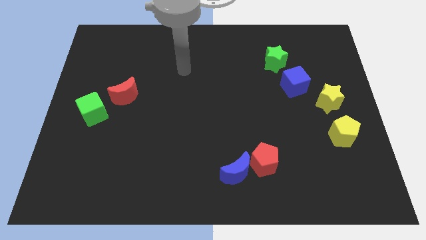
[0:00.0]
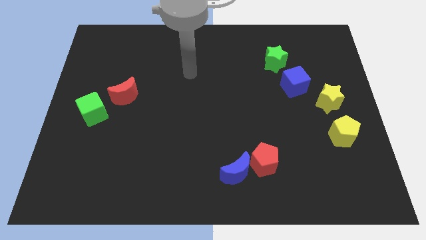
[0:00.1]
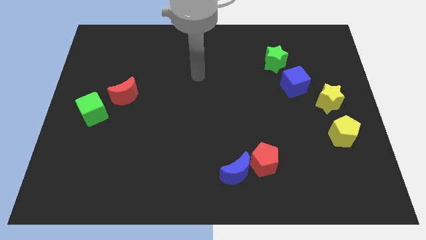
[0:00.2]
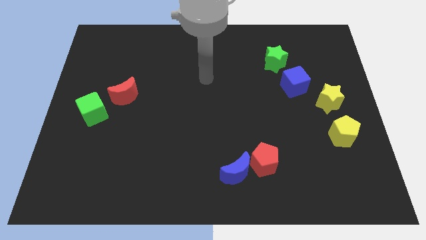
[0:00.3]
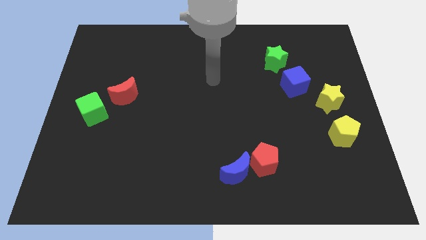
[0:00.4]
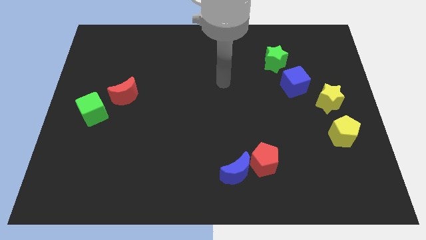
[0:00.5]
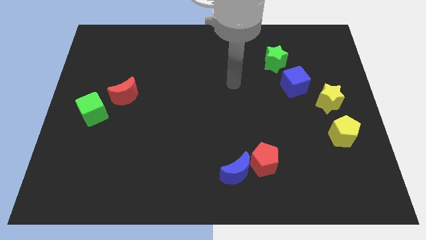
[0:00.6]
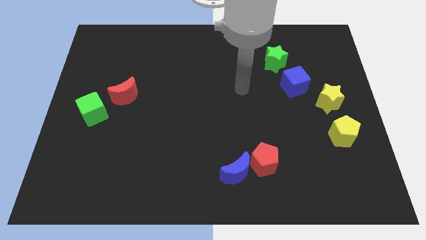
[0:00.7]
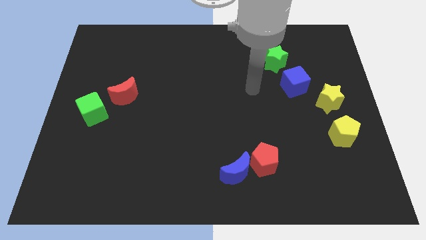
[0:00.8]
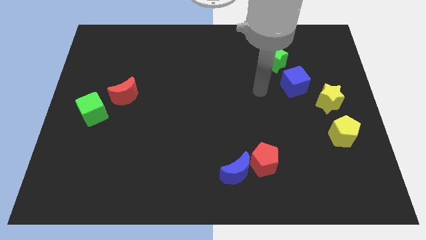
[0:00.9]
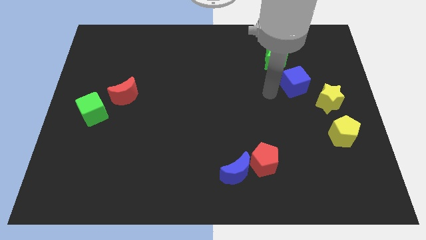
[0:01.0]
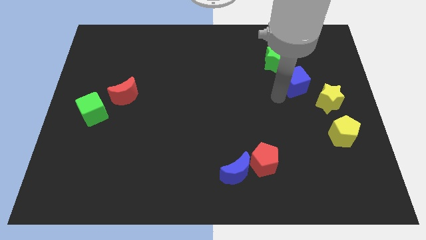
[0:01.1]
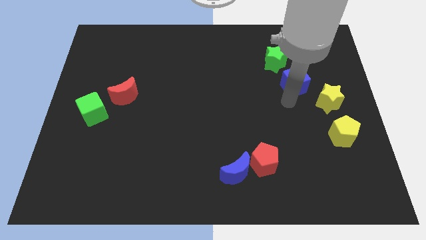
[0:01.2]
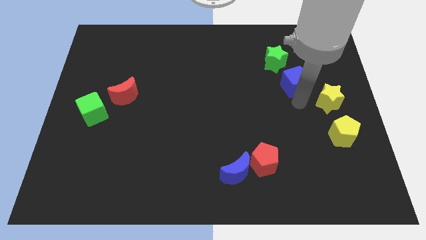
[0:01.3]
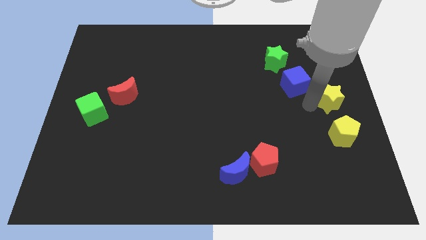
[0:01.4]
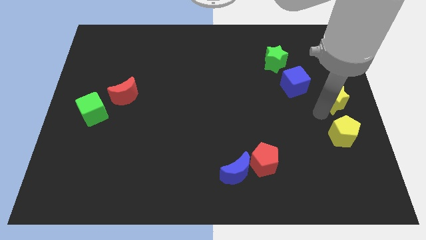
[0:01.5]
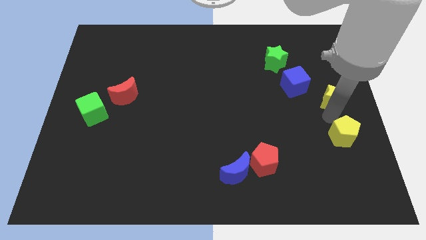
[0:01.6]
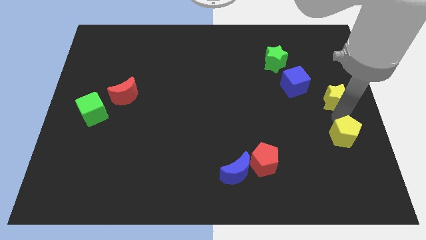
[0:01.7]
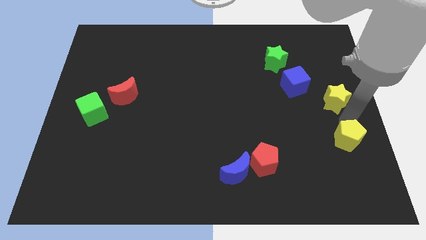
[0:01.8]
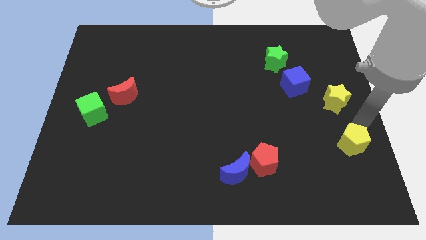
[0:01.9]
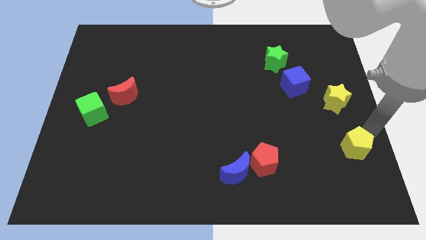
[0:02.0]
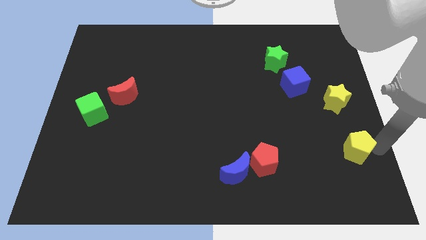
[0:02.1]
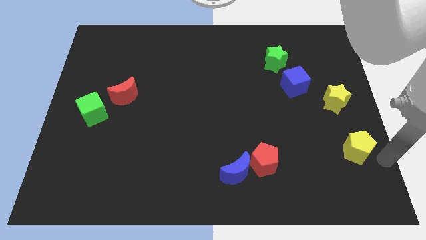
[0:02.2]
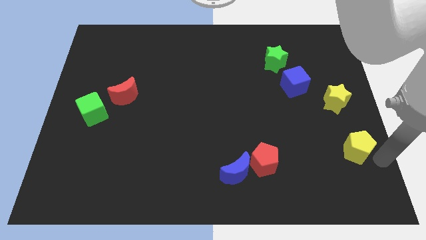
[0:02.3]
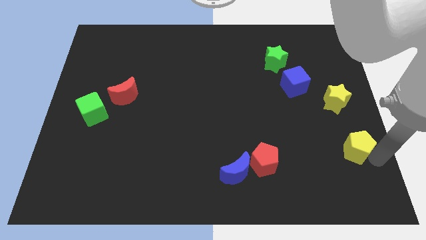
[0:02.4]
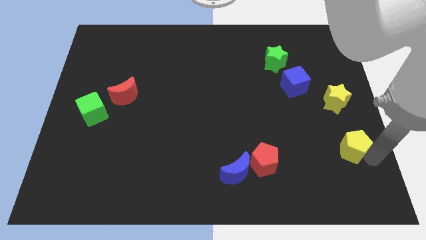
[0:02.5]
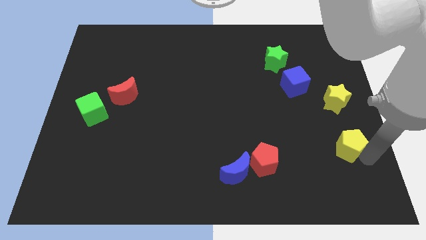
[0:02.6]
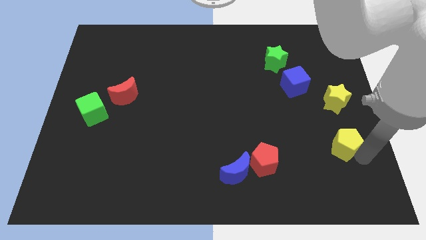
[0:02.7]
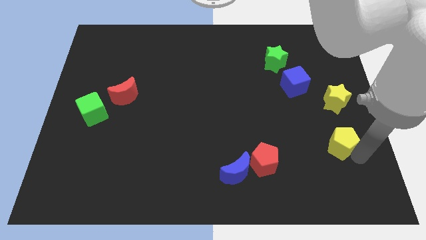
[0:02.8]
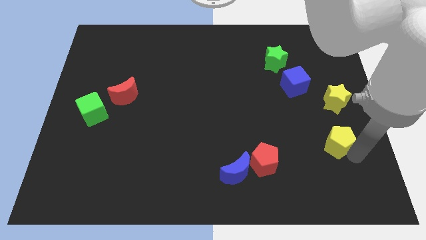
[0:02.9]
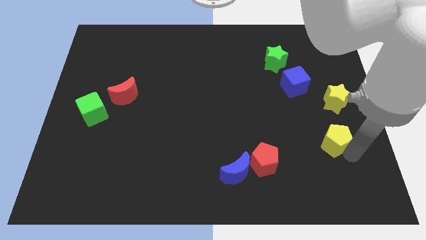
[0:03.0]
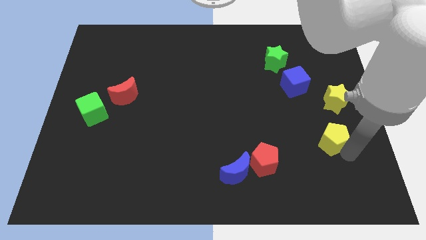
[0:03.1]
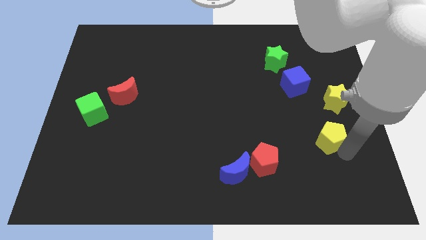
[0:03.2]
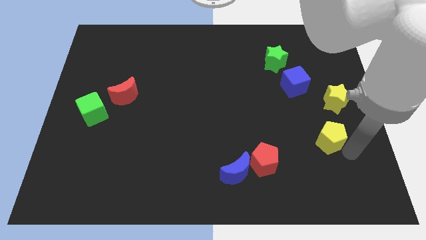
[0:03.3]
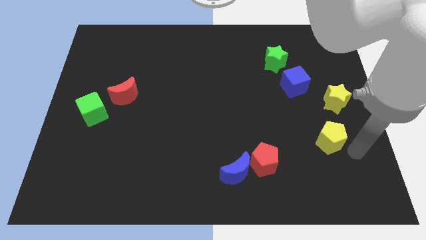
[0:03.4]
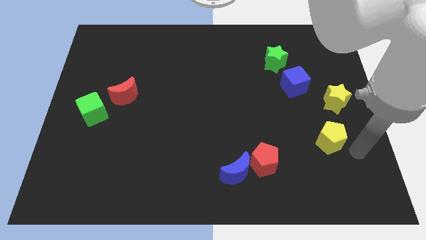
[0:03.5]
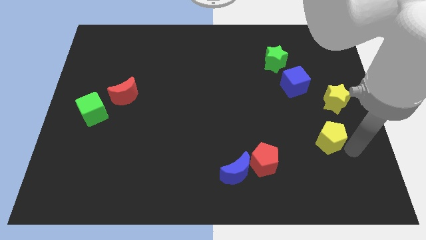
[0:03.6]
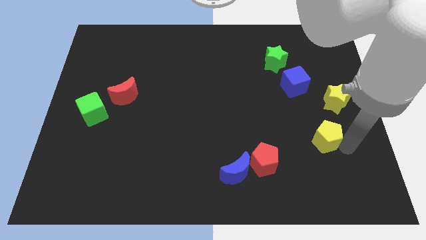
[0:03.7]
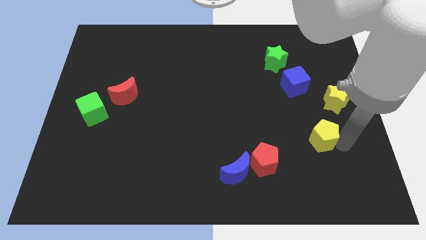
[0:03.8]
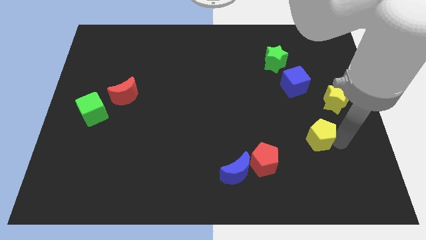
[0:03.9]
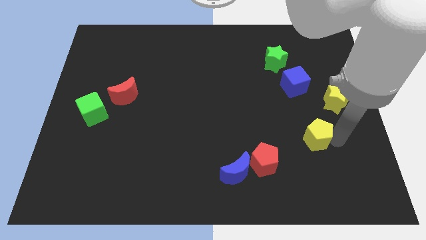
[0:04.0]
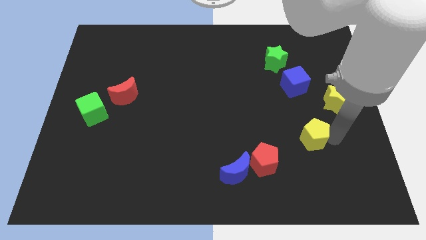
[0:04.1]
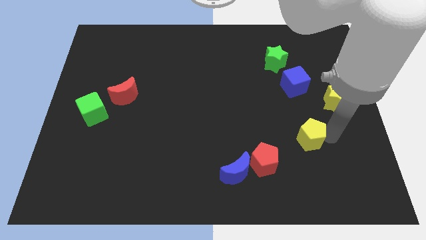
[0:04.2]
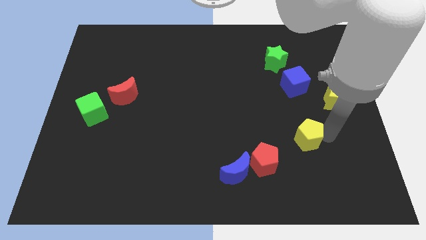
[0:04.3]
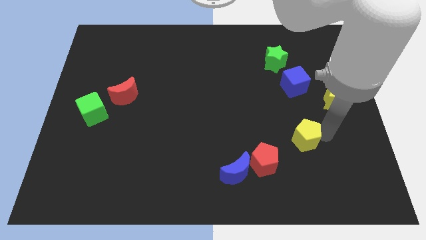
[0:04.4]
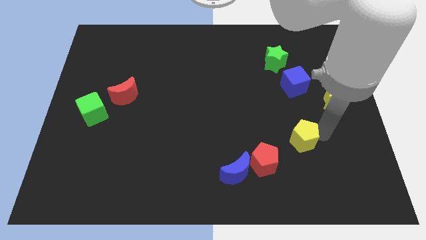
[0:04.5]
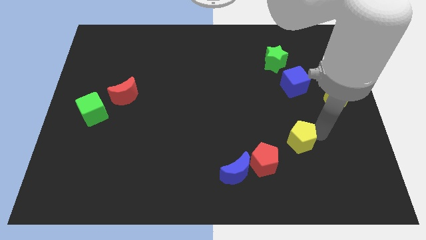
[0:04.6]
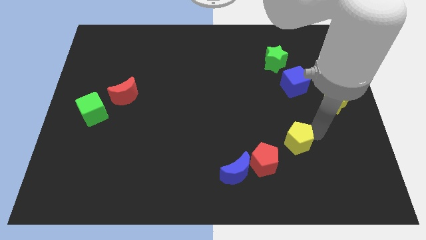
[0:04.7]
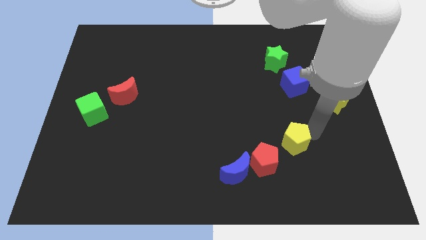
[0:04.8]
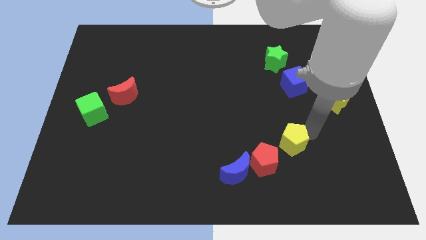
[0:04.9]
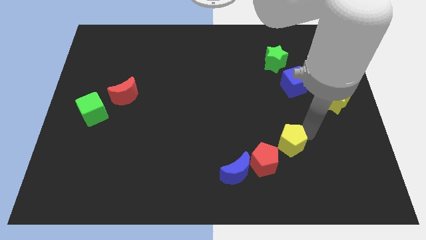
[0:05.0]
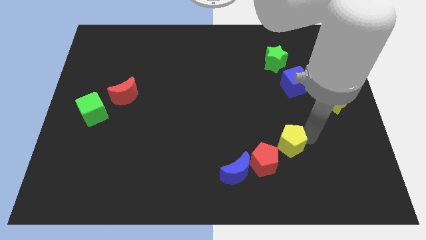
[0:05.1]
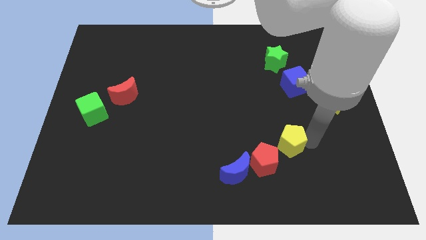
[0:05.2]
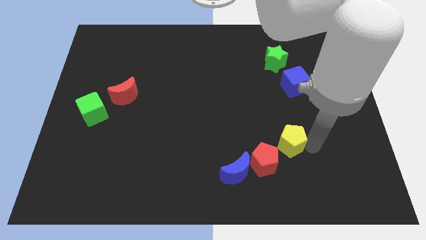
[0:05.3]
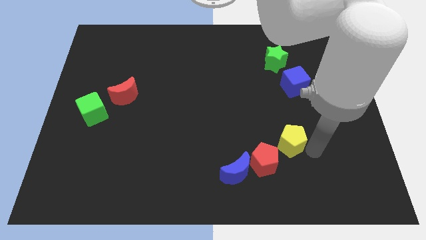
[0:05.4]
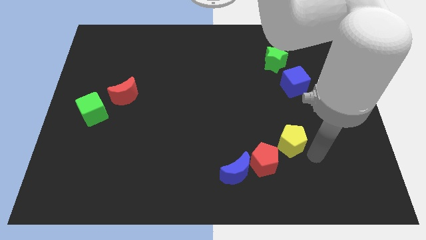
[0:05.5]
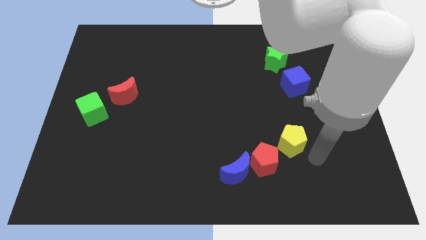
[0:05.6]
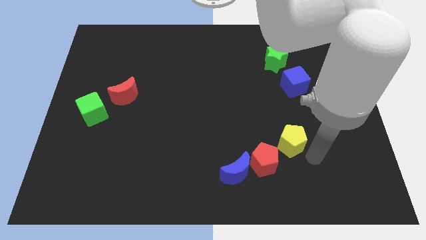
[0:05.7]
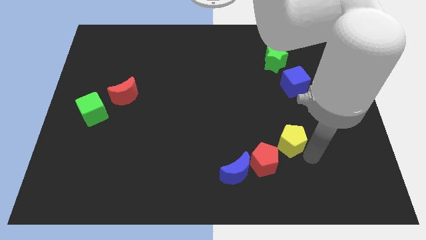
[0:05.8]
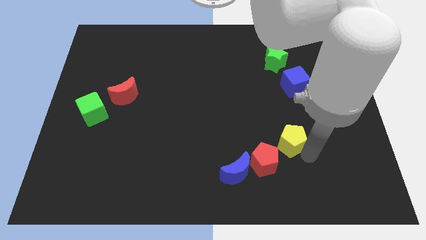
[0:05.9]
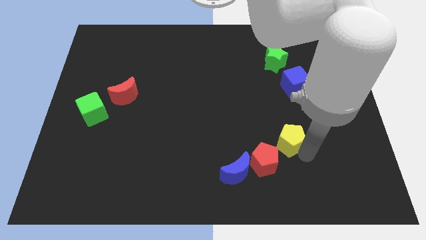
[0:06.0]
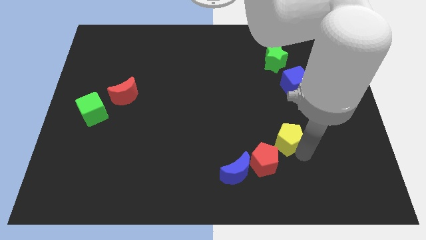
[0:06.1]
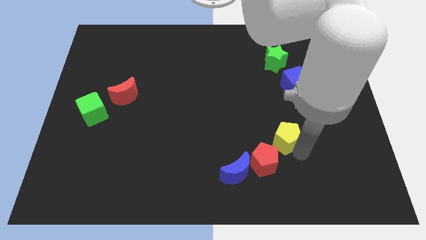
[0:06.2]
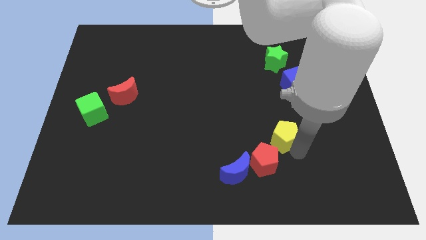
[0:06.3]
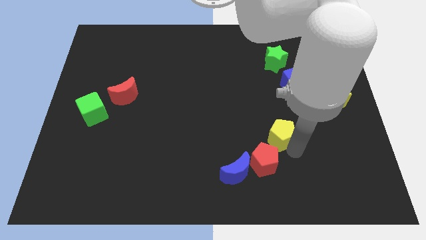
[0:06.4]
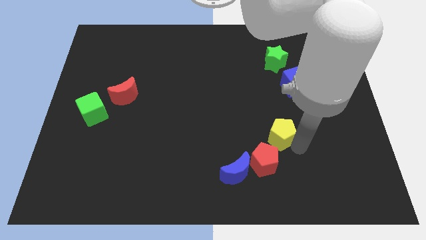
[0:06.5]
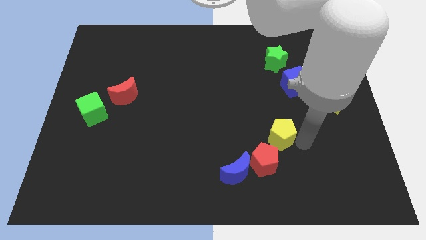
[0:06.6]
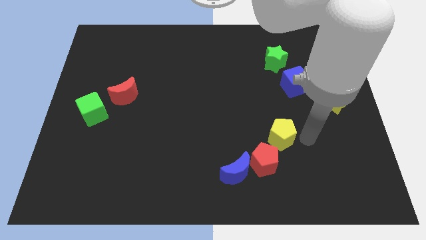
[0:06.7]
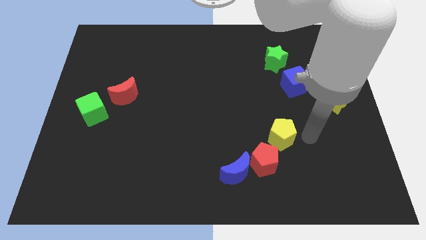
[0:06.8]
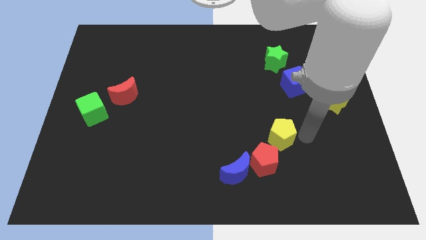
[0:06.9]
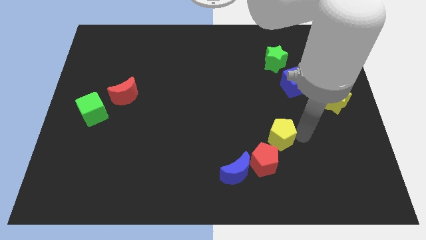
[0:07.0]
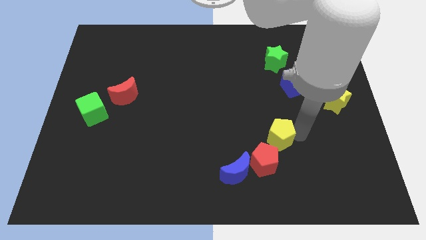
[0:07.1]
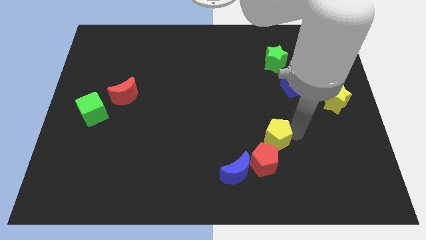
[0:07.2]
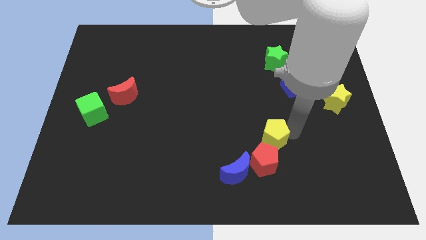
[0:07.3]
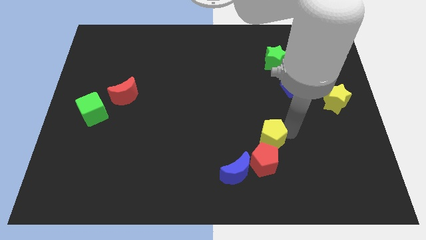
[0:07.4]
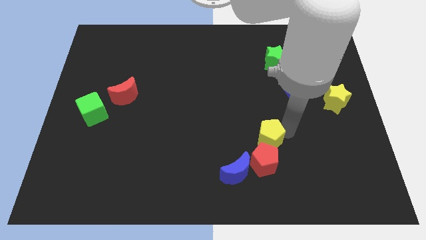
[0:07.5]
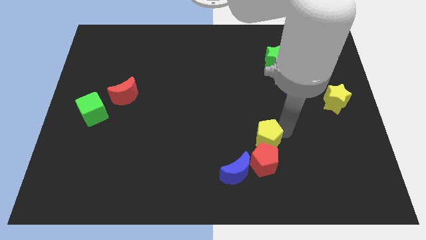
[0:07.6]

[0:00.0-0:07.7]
push the yellow pentagon to the top left of the red pentagon
